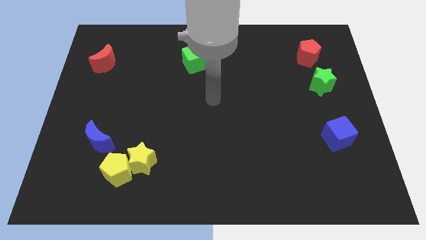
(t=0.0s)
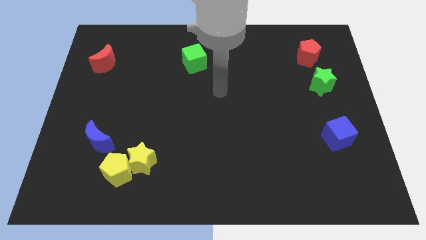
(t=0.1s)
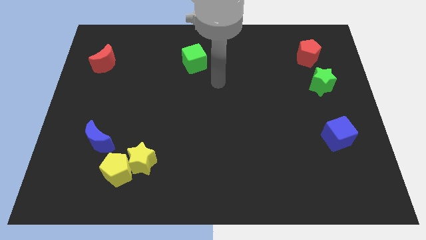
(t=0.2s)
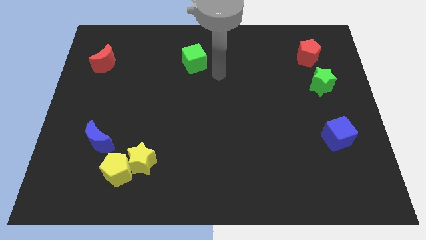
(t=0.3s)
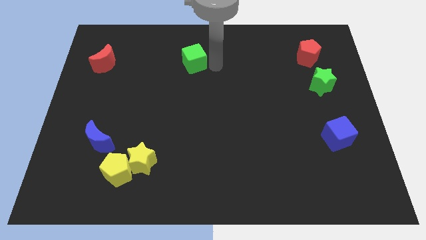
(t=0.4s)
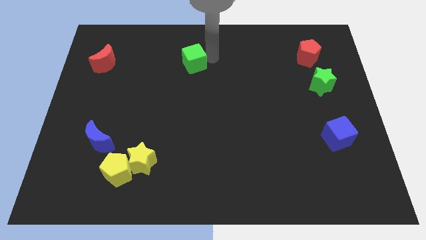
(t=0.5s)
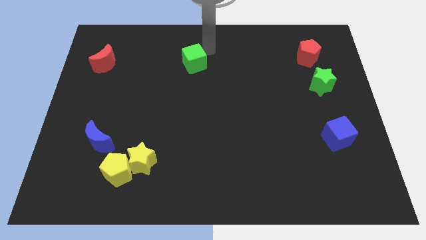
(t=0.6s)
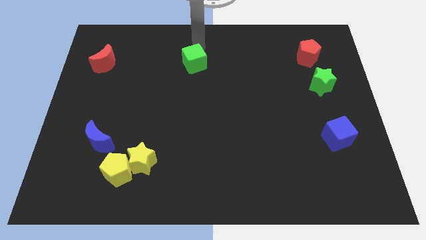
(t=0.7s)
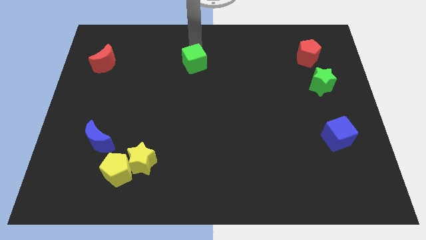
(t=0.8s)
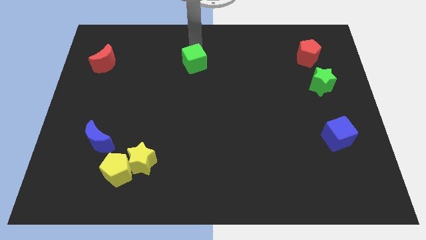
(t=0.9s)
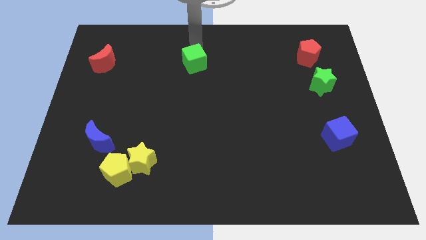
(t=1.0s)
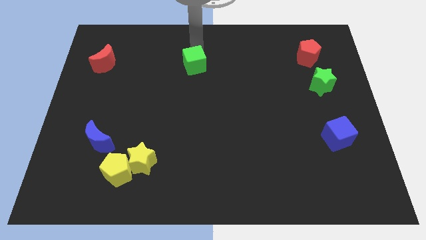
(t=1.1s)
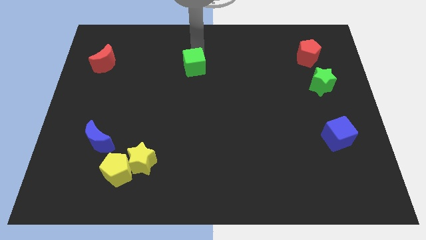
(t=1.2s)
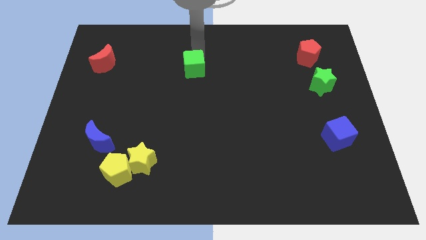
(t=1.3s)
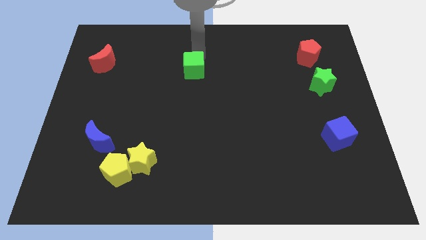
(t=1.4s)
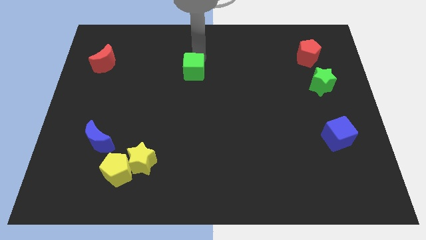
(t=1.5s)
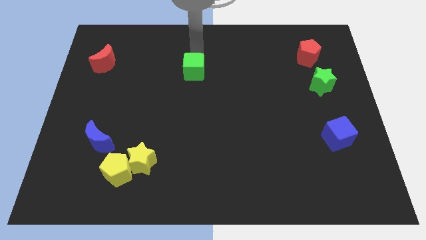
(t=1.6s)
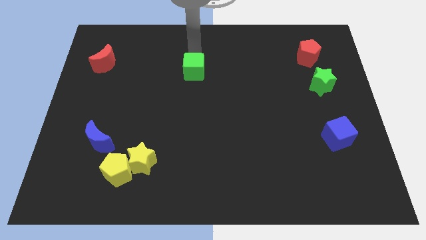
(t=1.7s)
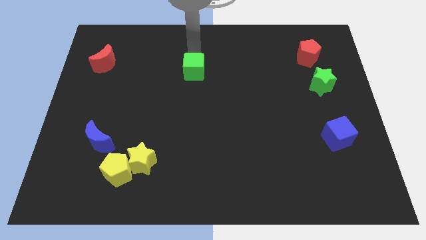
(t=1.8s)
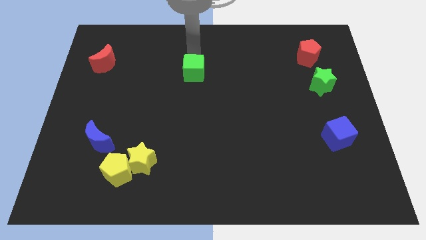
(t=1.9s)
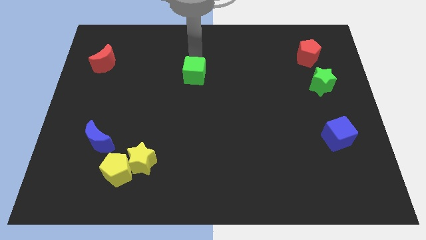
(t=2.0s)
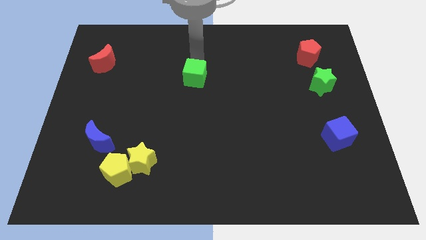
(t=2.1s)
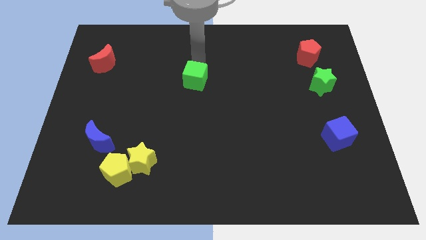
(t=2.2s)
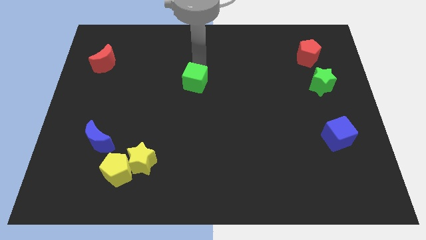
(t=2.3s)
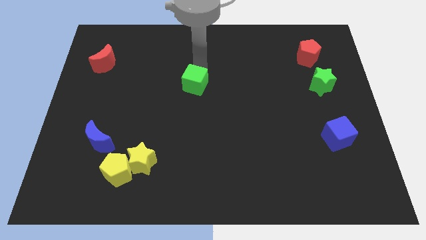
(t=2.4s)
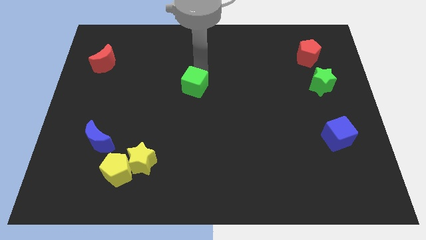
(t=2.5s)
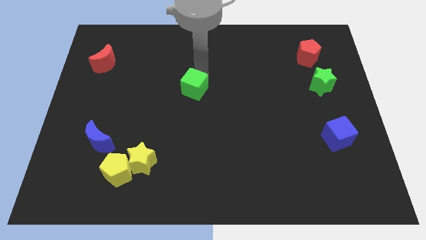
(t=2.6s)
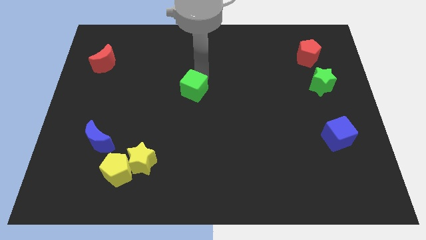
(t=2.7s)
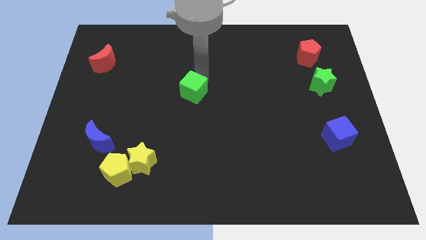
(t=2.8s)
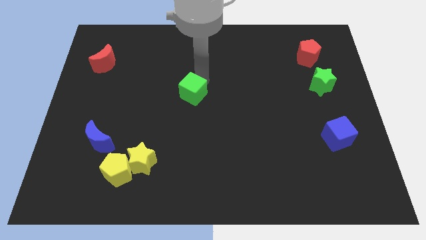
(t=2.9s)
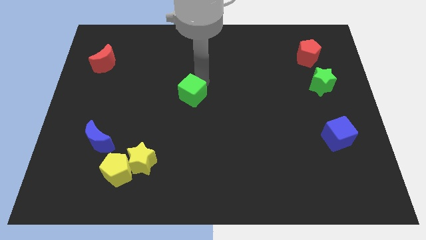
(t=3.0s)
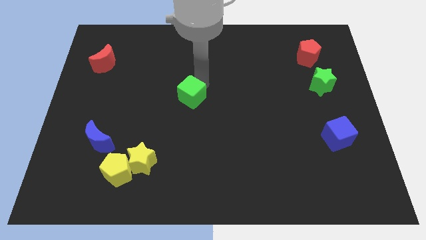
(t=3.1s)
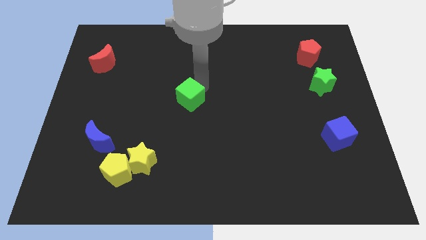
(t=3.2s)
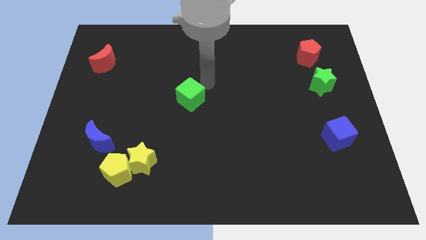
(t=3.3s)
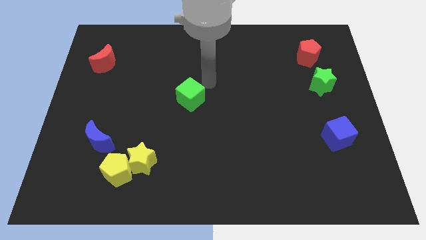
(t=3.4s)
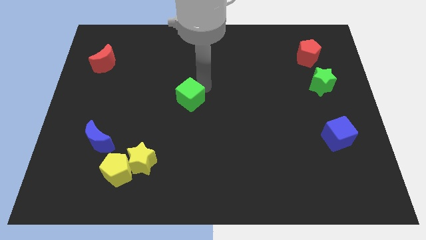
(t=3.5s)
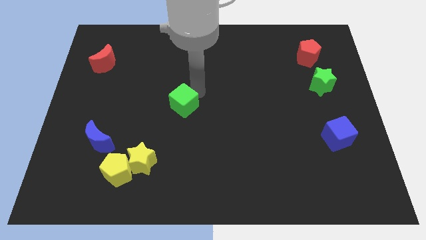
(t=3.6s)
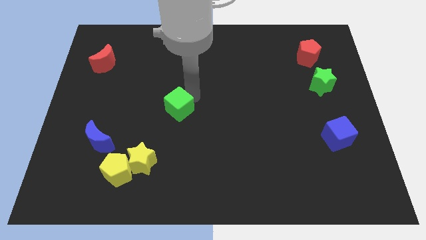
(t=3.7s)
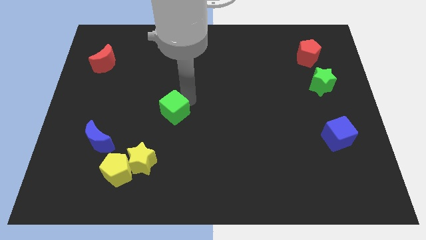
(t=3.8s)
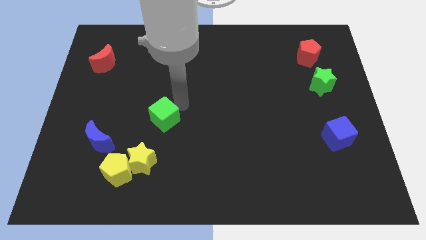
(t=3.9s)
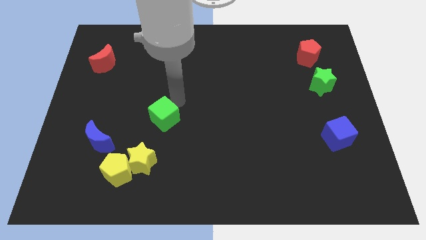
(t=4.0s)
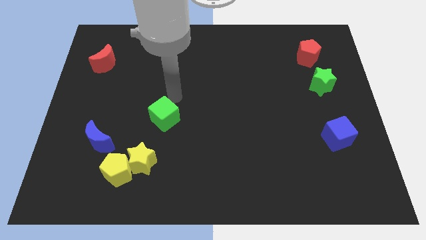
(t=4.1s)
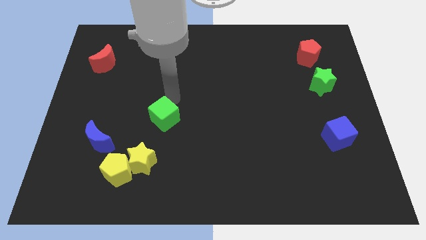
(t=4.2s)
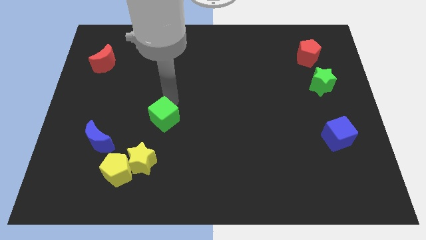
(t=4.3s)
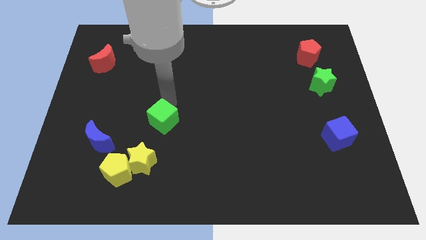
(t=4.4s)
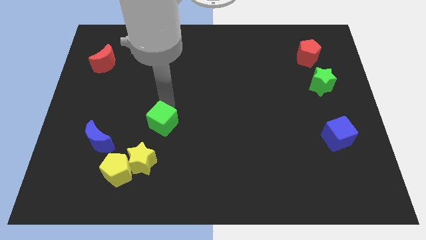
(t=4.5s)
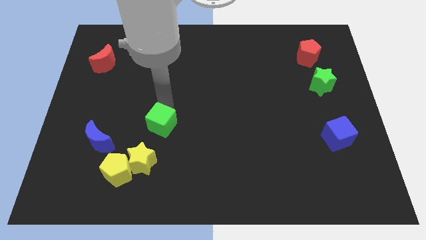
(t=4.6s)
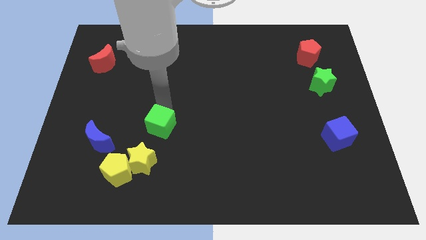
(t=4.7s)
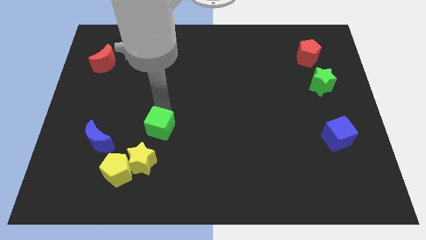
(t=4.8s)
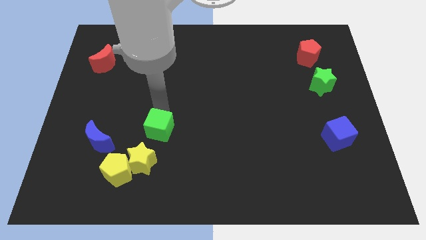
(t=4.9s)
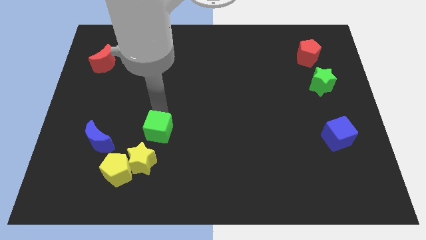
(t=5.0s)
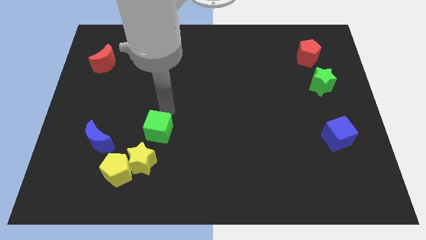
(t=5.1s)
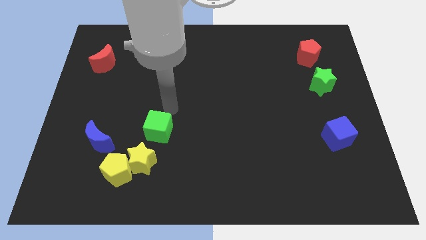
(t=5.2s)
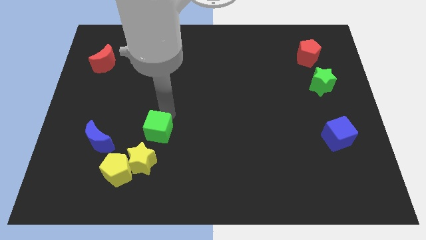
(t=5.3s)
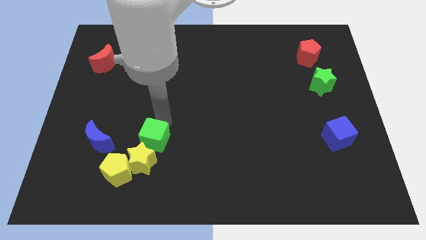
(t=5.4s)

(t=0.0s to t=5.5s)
slide the green cube to the yellow star

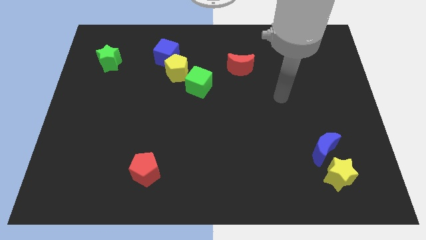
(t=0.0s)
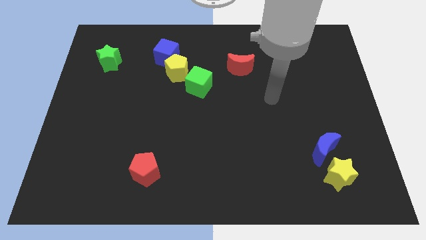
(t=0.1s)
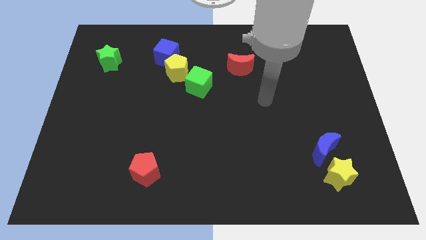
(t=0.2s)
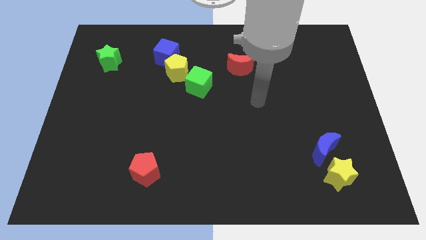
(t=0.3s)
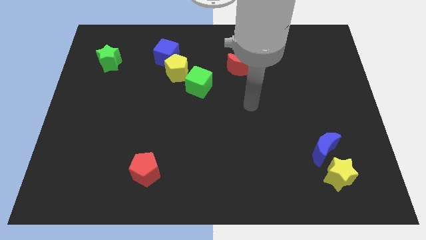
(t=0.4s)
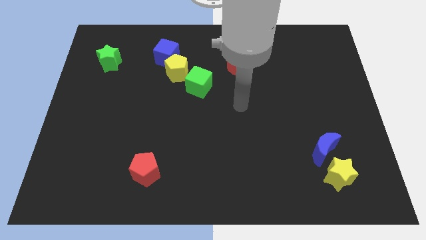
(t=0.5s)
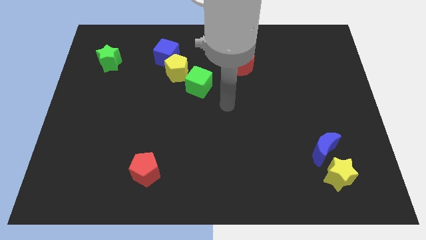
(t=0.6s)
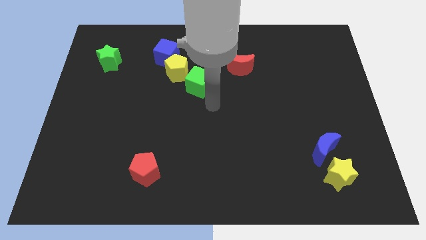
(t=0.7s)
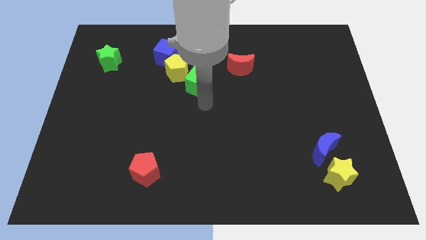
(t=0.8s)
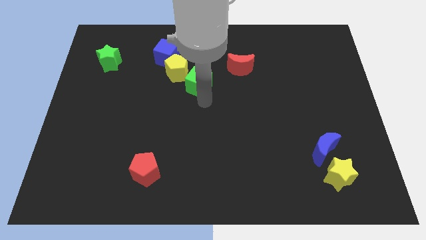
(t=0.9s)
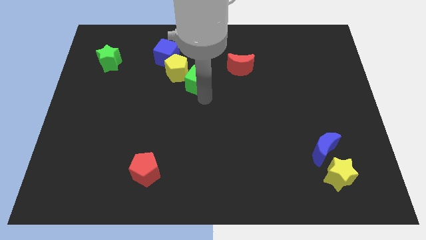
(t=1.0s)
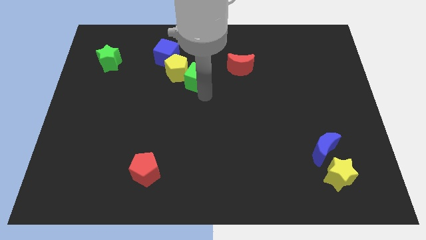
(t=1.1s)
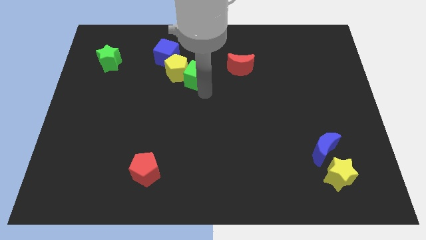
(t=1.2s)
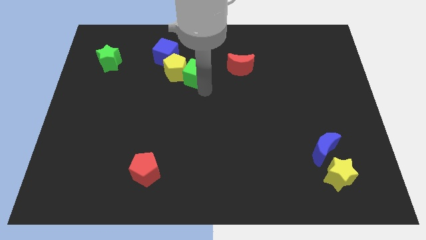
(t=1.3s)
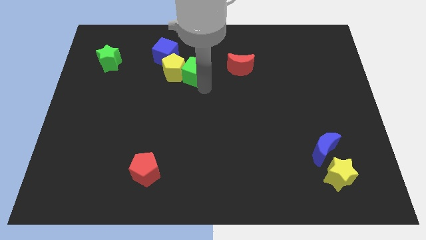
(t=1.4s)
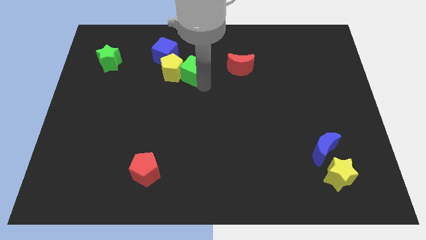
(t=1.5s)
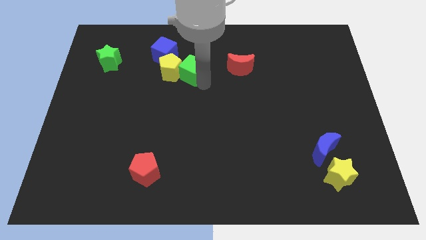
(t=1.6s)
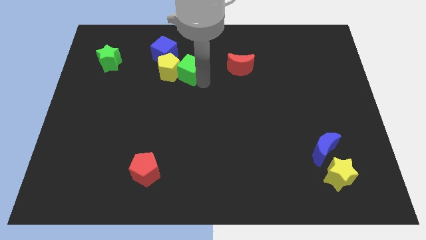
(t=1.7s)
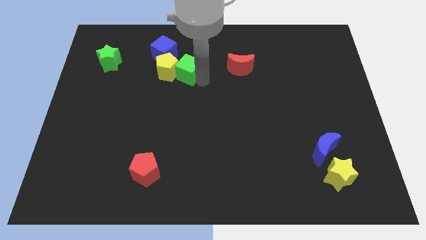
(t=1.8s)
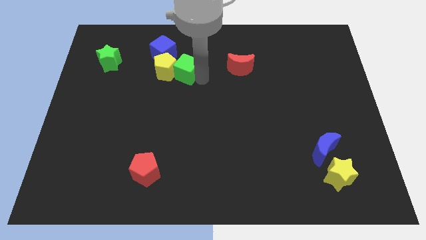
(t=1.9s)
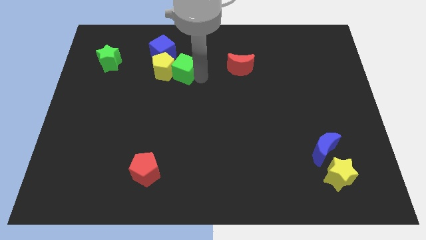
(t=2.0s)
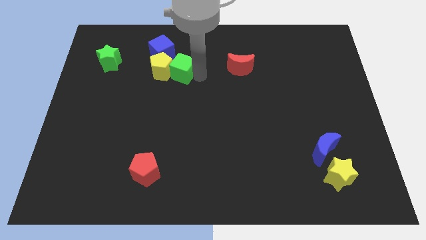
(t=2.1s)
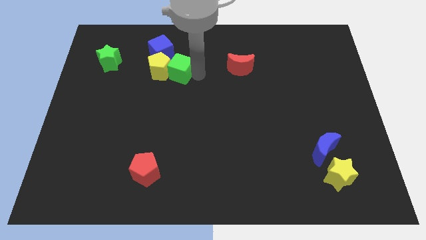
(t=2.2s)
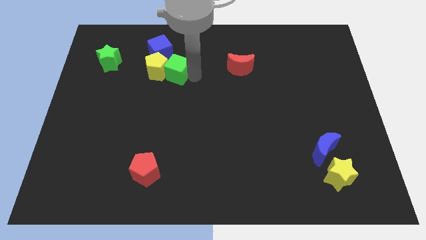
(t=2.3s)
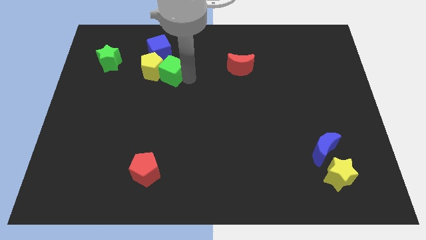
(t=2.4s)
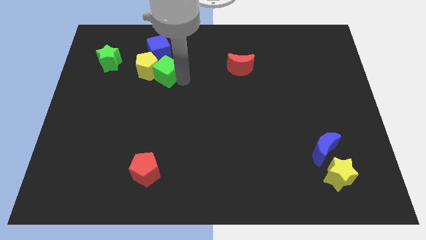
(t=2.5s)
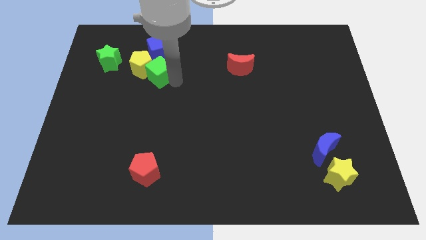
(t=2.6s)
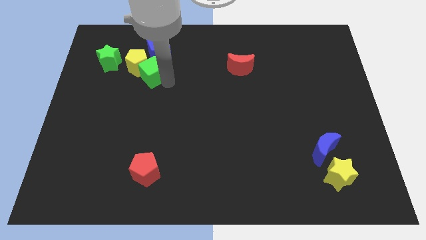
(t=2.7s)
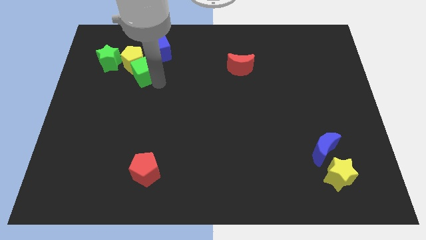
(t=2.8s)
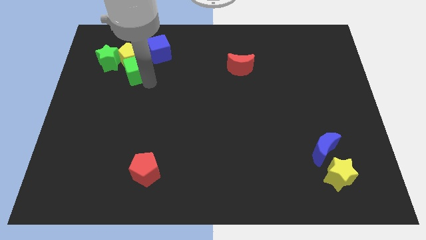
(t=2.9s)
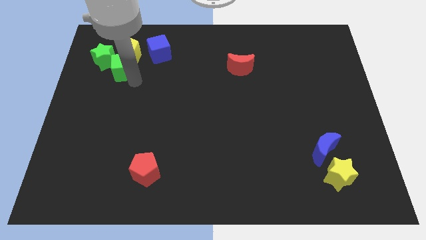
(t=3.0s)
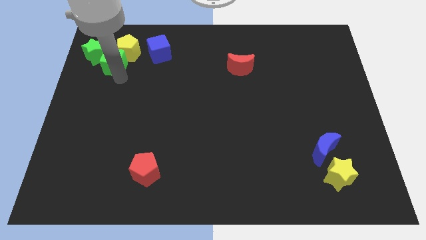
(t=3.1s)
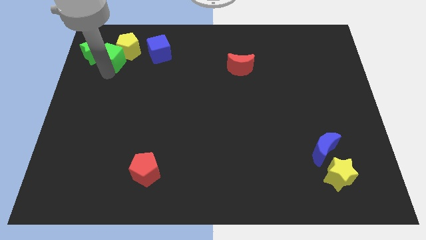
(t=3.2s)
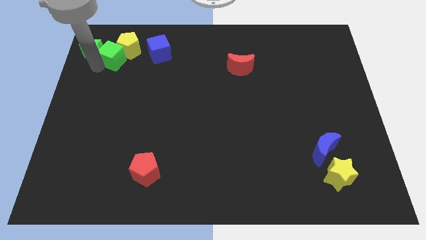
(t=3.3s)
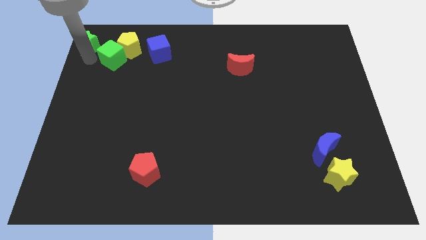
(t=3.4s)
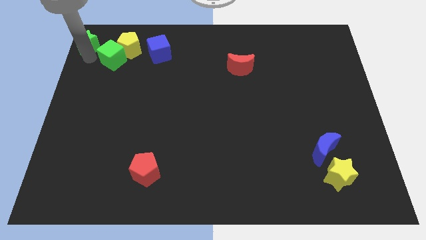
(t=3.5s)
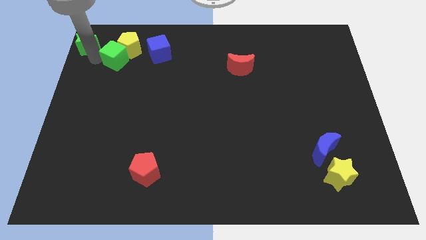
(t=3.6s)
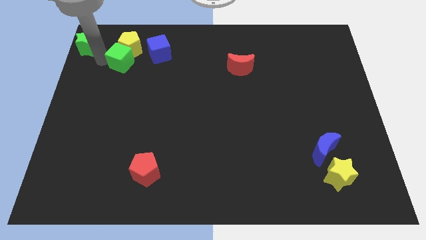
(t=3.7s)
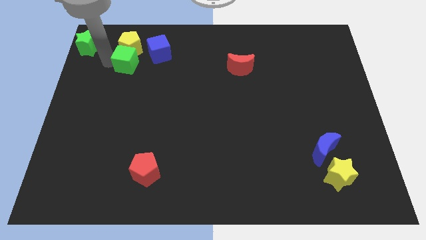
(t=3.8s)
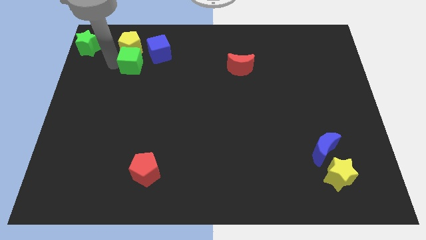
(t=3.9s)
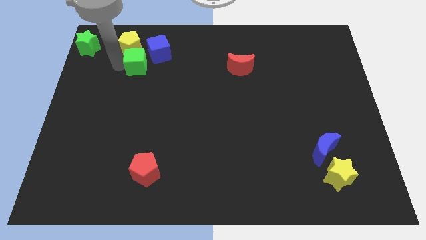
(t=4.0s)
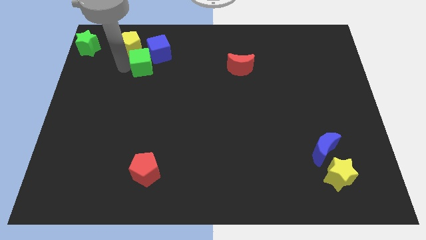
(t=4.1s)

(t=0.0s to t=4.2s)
put the green cube towards the blue cube
